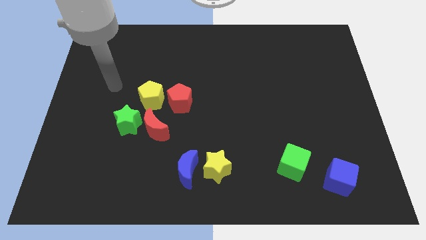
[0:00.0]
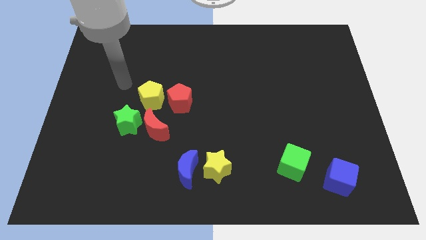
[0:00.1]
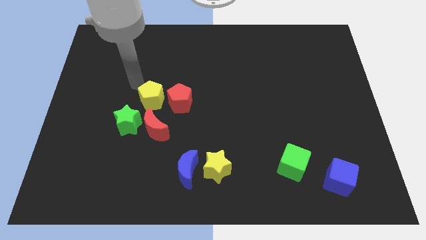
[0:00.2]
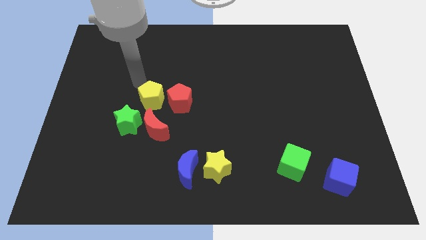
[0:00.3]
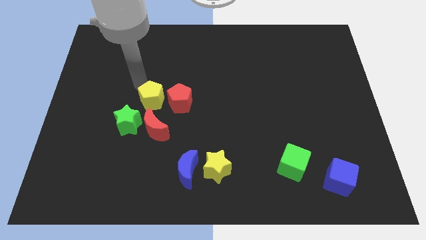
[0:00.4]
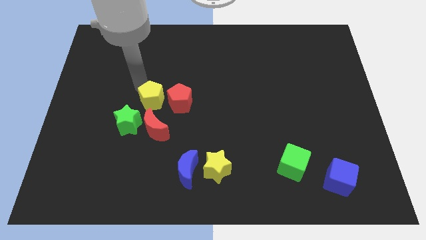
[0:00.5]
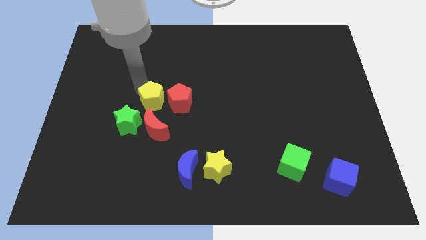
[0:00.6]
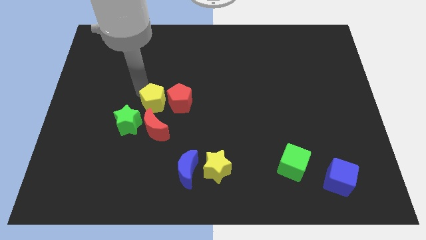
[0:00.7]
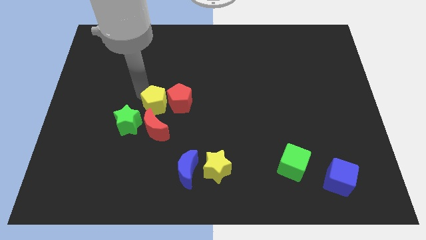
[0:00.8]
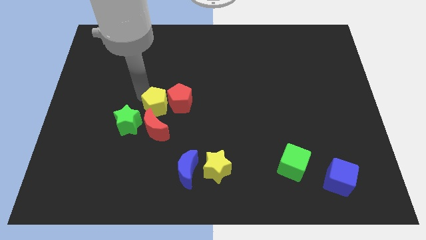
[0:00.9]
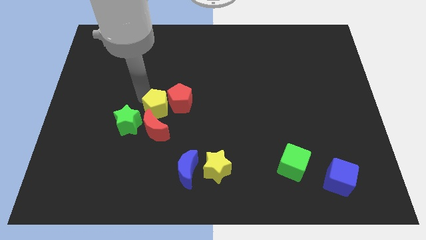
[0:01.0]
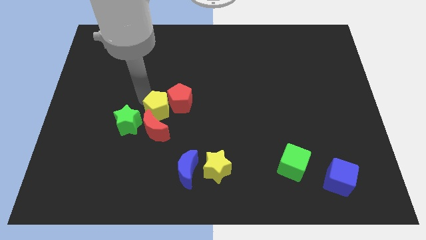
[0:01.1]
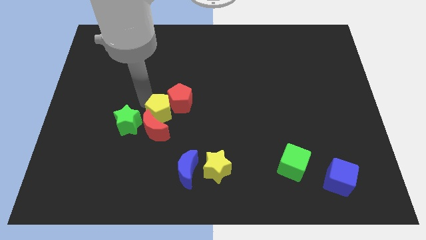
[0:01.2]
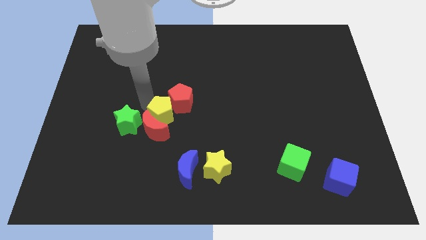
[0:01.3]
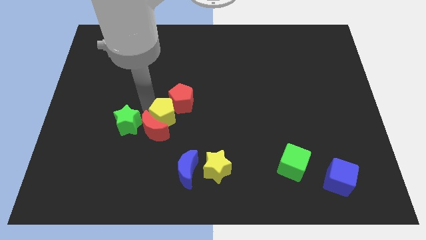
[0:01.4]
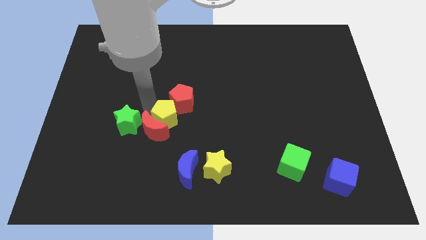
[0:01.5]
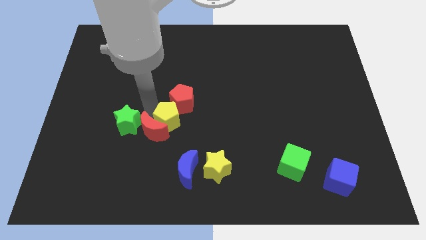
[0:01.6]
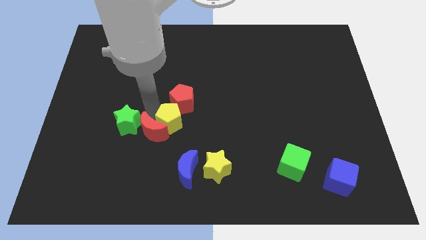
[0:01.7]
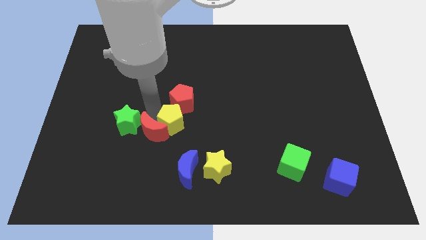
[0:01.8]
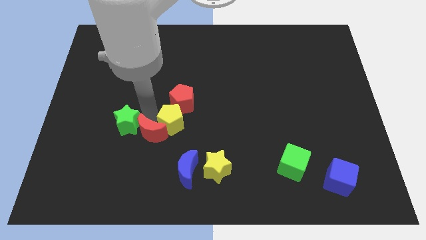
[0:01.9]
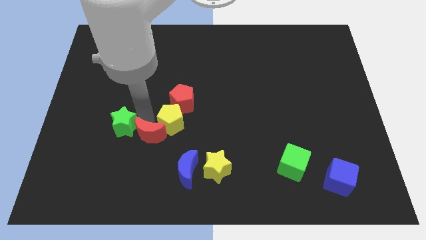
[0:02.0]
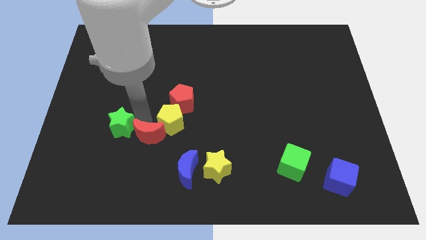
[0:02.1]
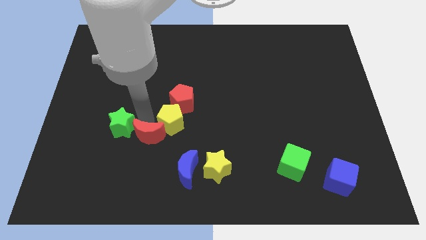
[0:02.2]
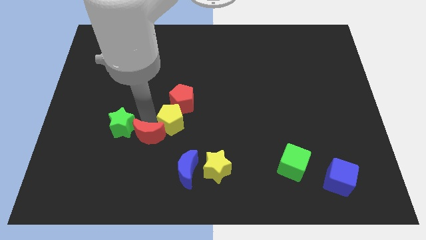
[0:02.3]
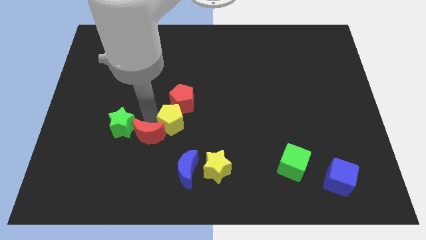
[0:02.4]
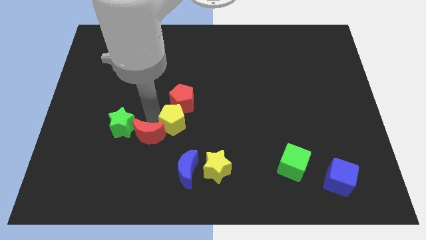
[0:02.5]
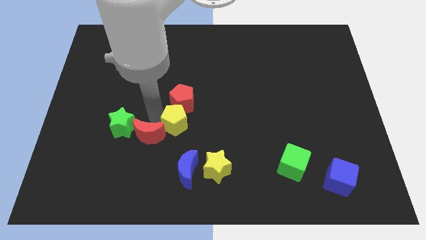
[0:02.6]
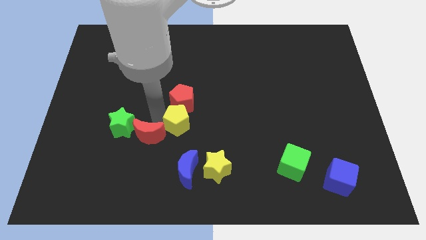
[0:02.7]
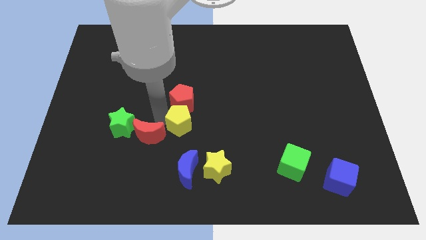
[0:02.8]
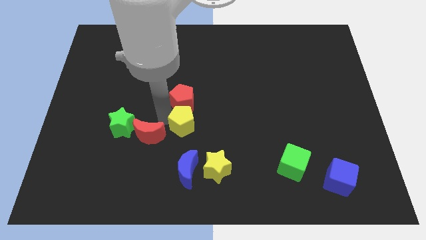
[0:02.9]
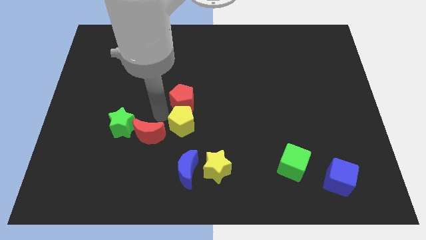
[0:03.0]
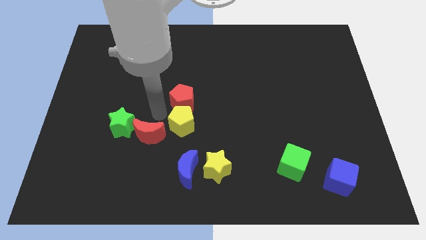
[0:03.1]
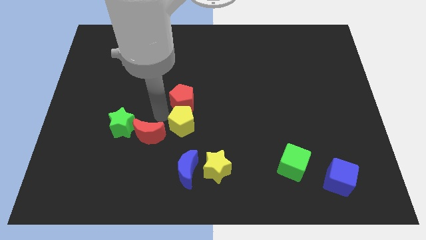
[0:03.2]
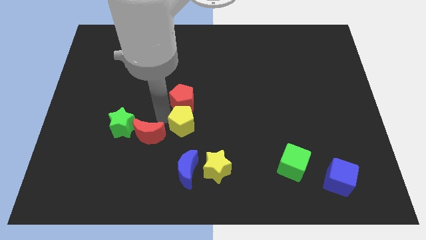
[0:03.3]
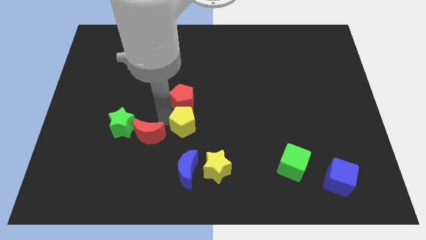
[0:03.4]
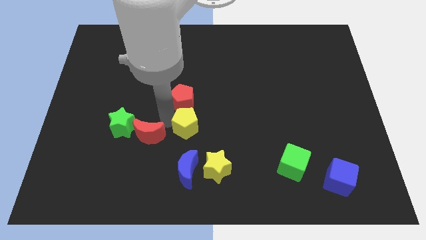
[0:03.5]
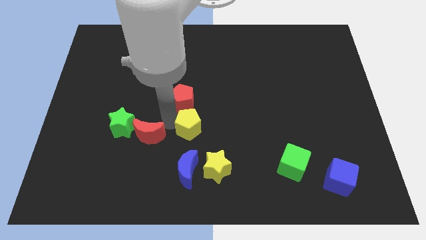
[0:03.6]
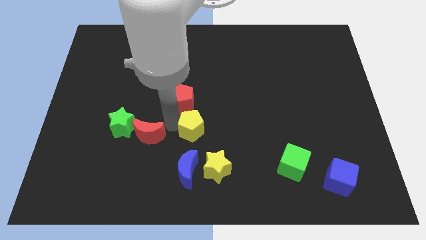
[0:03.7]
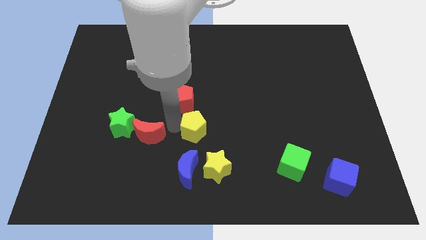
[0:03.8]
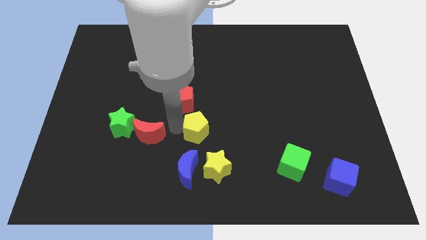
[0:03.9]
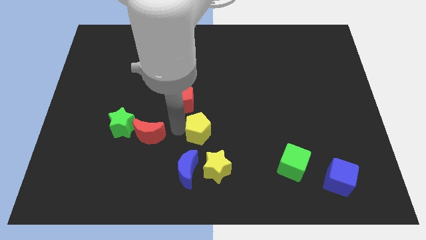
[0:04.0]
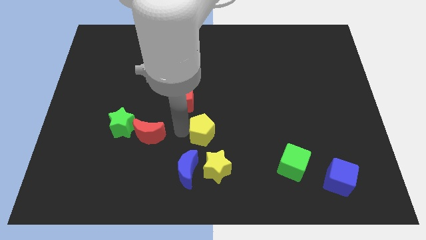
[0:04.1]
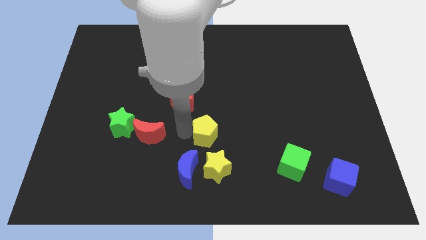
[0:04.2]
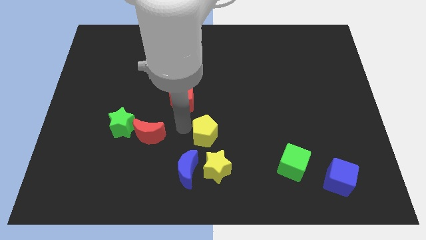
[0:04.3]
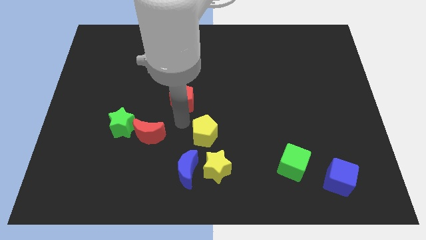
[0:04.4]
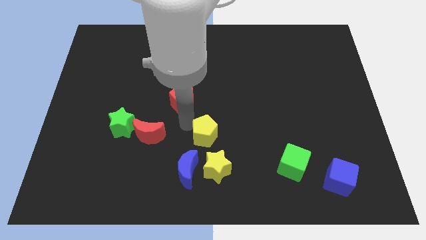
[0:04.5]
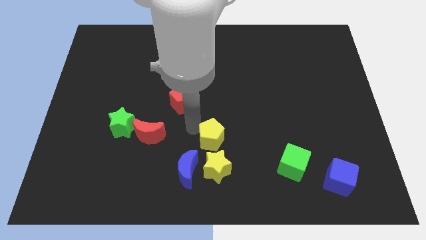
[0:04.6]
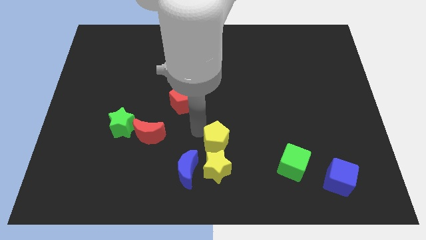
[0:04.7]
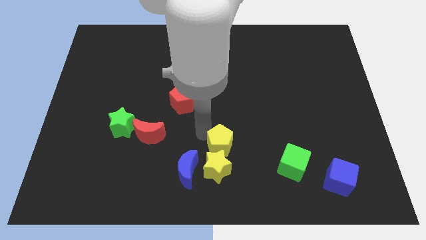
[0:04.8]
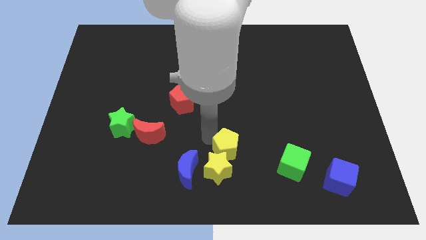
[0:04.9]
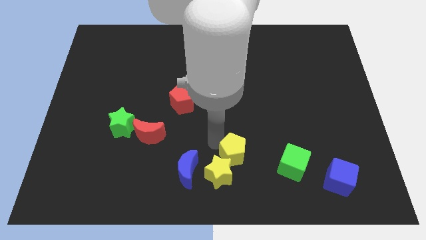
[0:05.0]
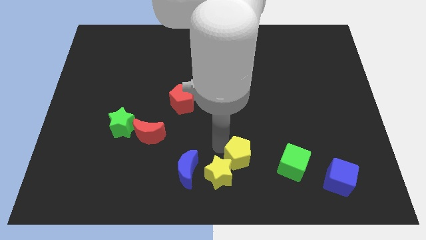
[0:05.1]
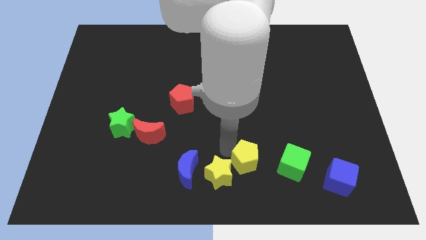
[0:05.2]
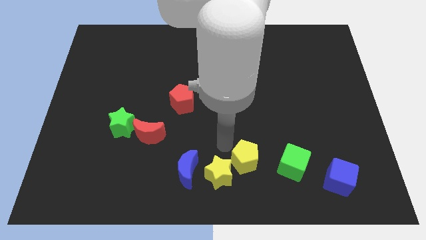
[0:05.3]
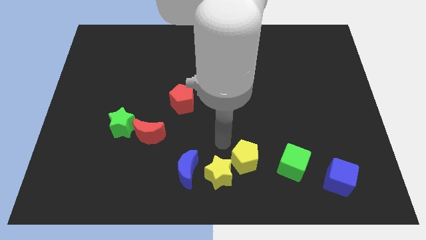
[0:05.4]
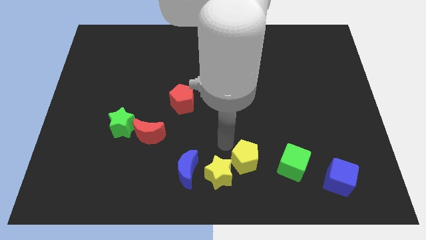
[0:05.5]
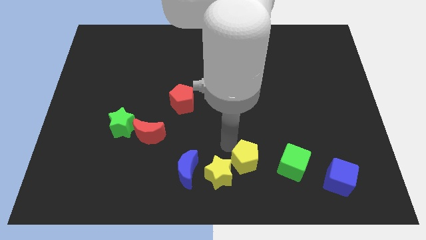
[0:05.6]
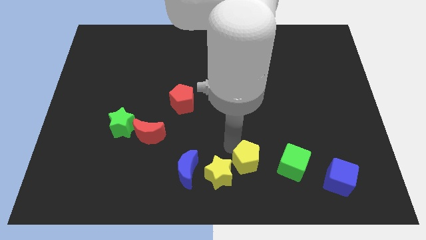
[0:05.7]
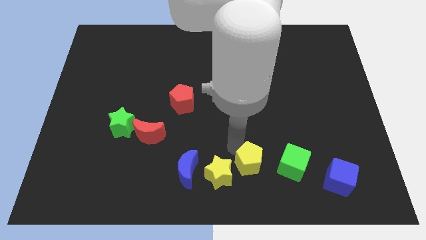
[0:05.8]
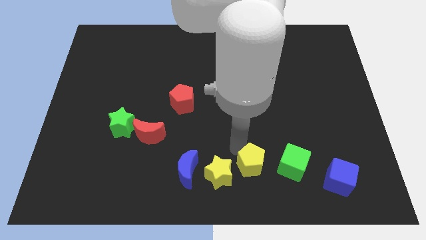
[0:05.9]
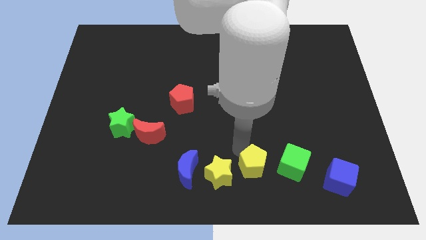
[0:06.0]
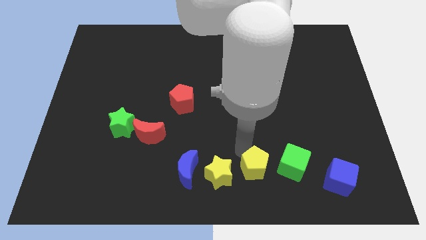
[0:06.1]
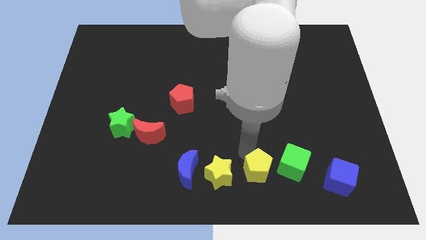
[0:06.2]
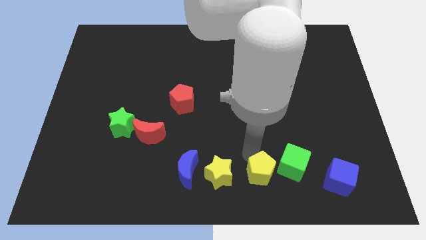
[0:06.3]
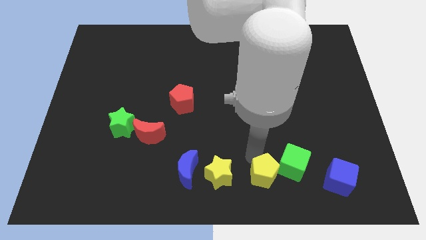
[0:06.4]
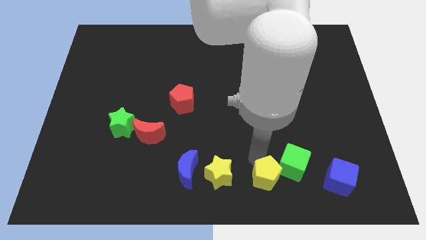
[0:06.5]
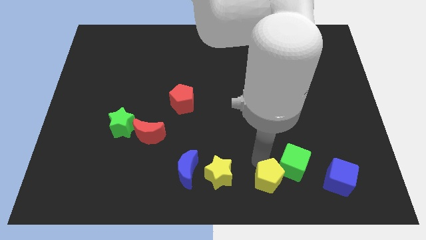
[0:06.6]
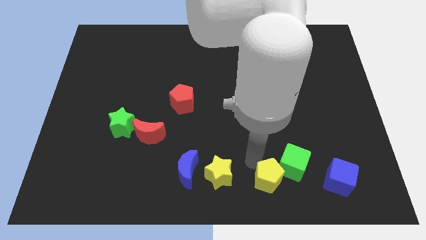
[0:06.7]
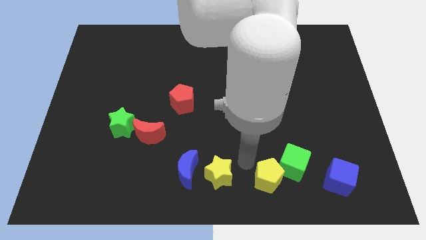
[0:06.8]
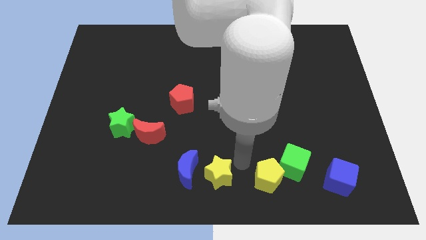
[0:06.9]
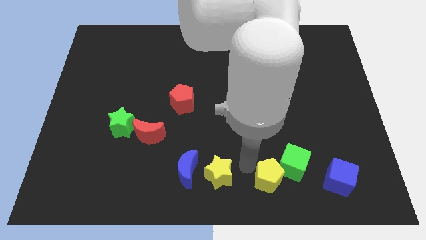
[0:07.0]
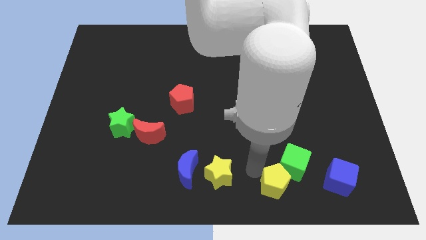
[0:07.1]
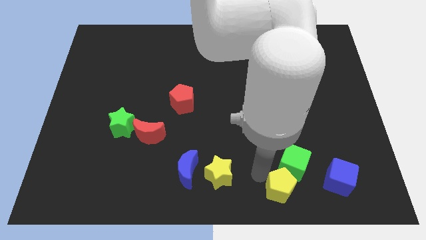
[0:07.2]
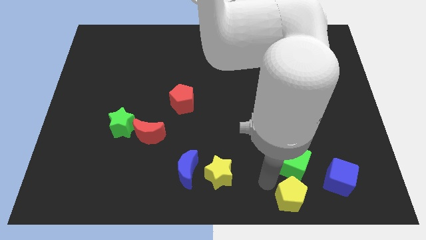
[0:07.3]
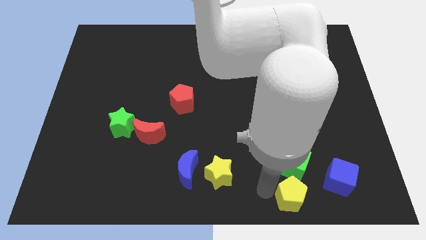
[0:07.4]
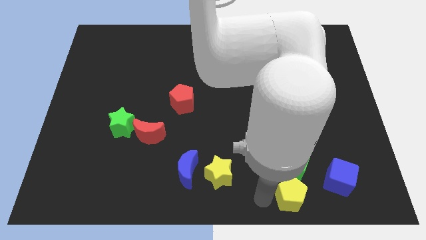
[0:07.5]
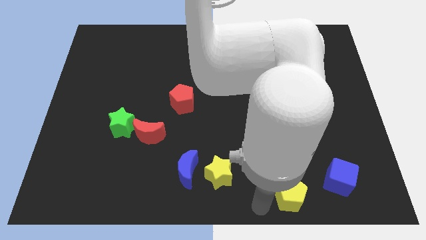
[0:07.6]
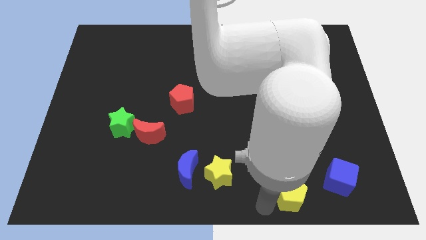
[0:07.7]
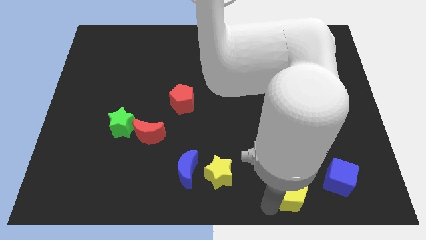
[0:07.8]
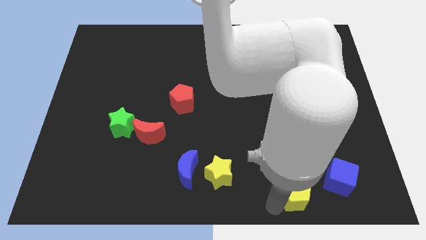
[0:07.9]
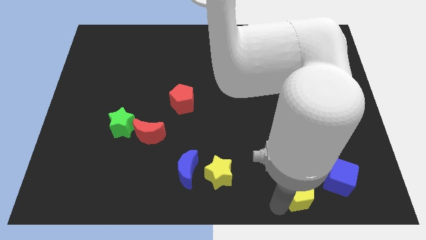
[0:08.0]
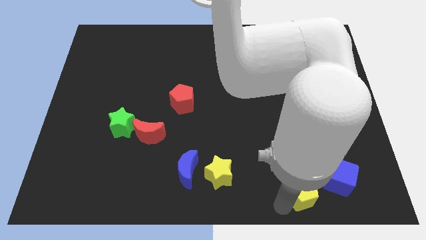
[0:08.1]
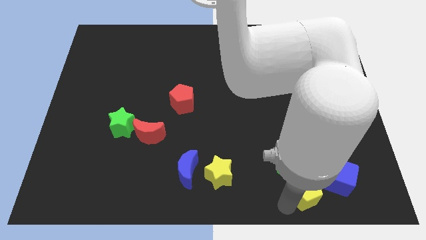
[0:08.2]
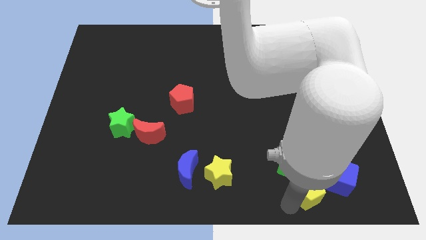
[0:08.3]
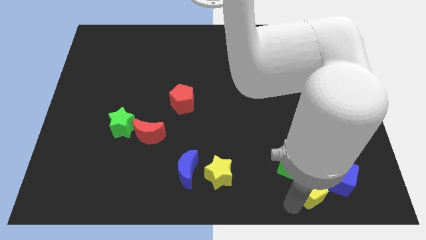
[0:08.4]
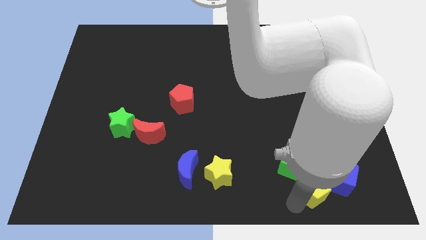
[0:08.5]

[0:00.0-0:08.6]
move the yellow pentagon to the blue cube
